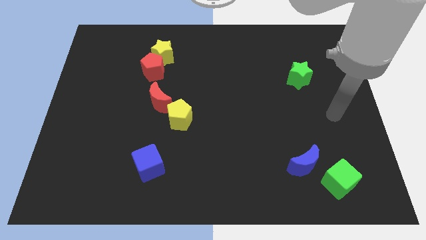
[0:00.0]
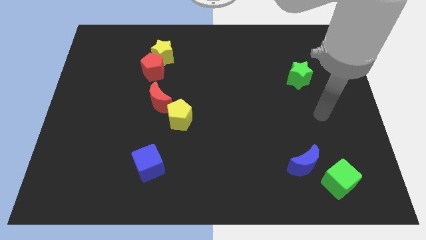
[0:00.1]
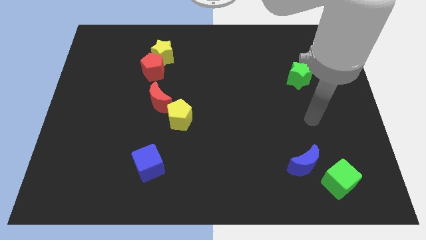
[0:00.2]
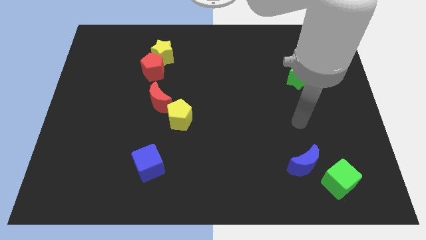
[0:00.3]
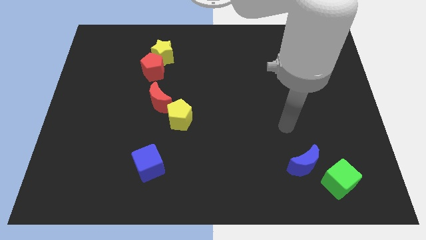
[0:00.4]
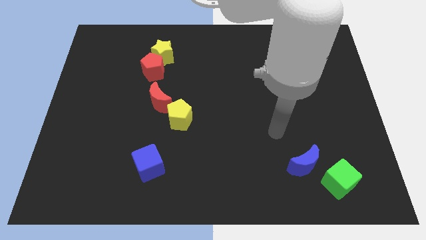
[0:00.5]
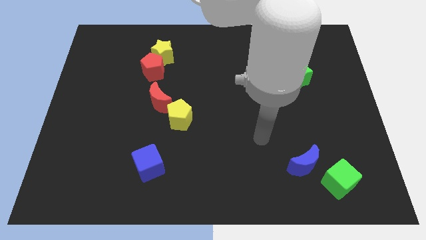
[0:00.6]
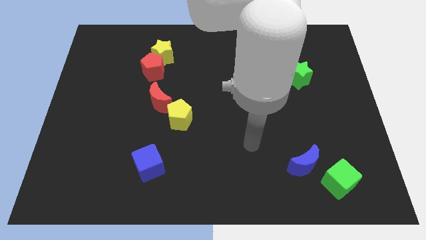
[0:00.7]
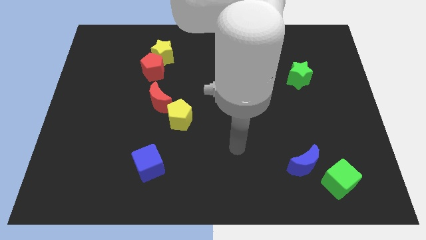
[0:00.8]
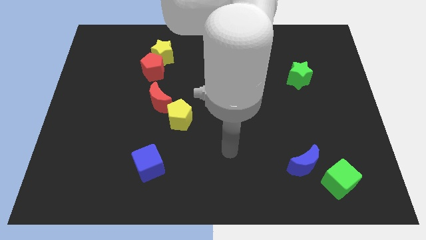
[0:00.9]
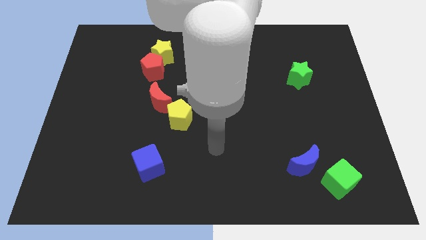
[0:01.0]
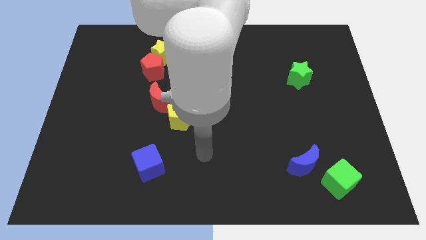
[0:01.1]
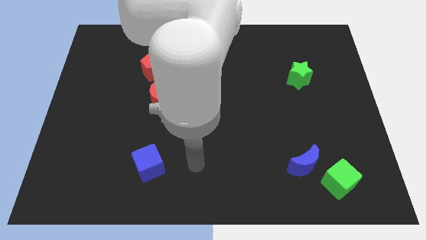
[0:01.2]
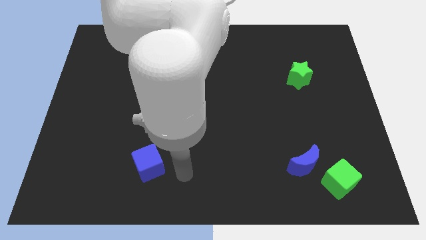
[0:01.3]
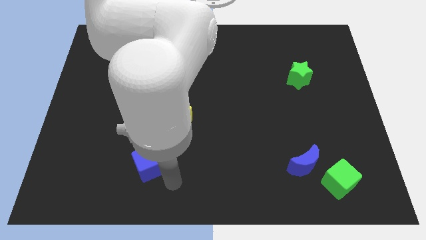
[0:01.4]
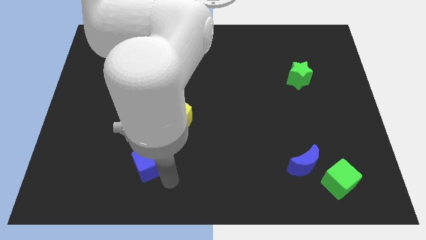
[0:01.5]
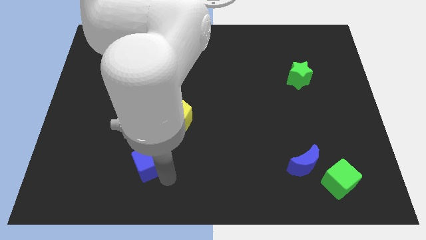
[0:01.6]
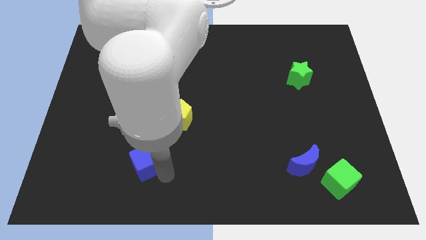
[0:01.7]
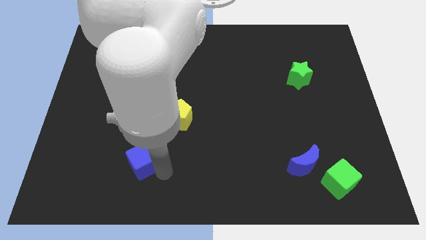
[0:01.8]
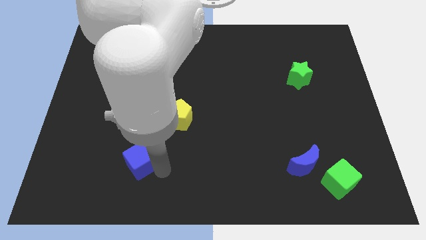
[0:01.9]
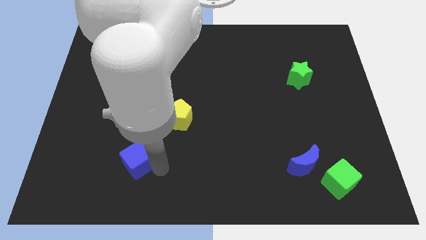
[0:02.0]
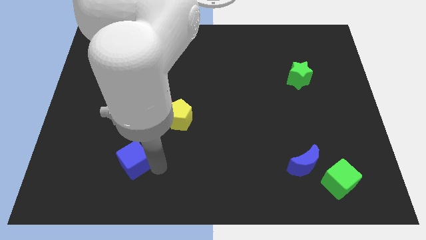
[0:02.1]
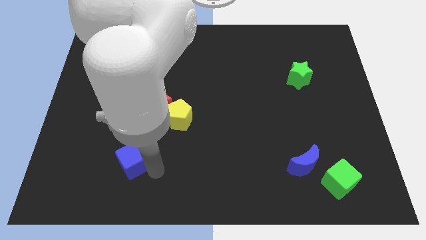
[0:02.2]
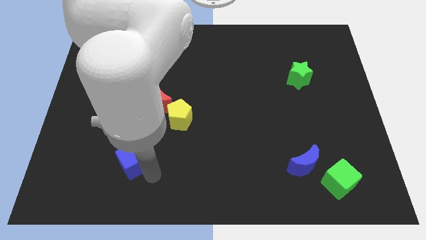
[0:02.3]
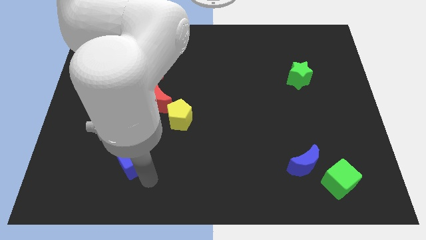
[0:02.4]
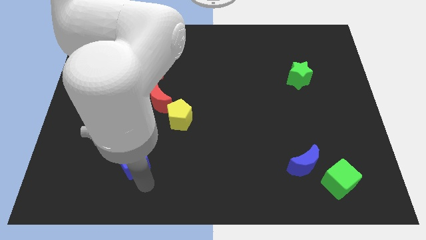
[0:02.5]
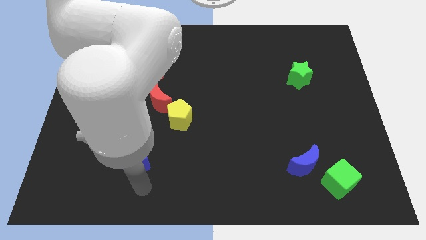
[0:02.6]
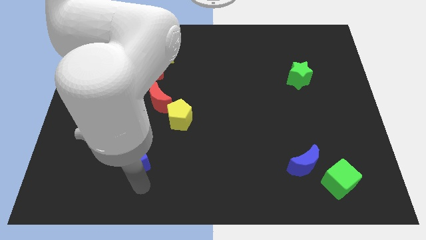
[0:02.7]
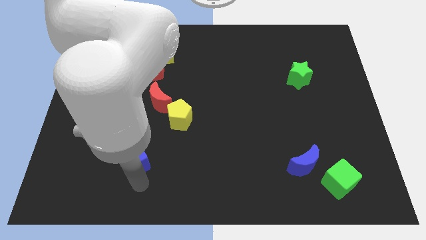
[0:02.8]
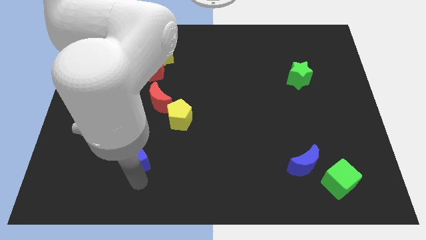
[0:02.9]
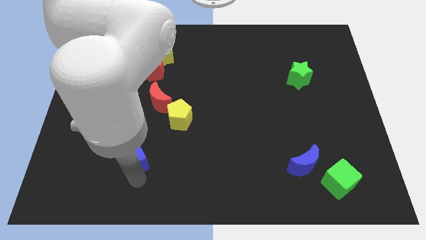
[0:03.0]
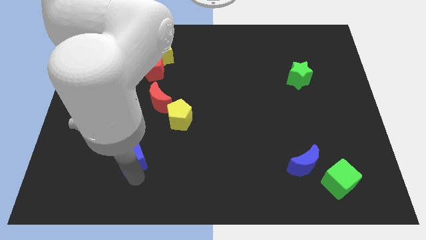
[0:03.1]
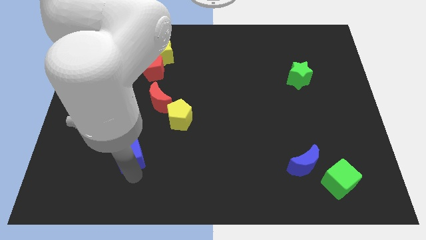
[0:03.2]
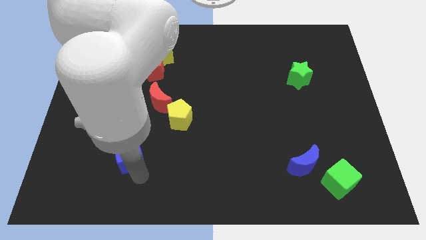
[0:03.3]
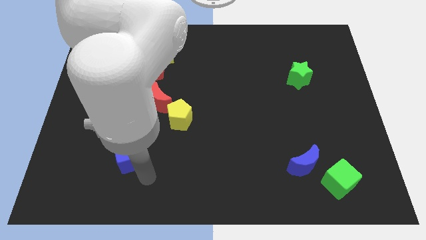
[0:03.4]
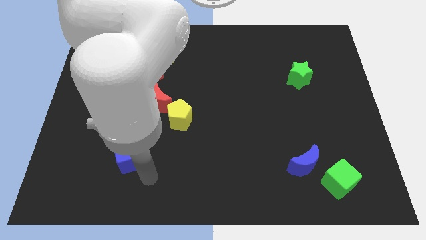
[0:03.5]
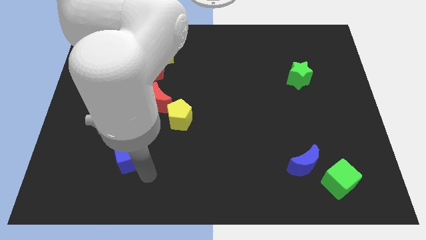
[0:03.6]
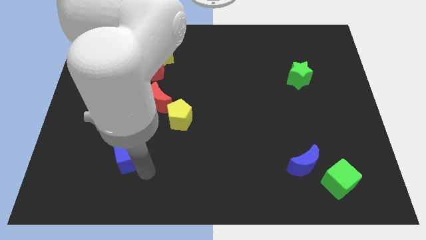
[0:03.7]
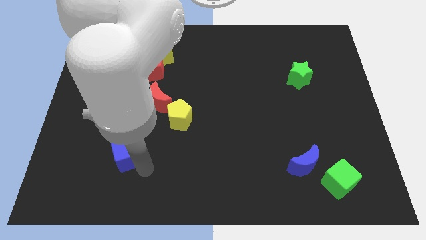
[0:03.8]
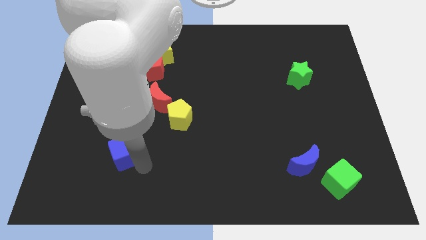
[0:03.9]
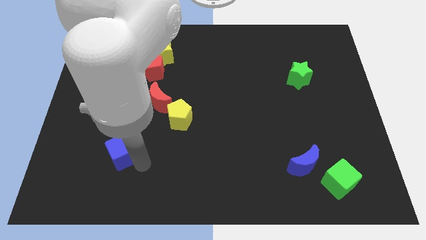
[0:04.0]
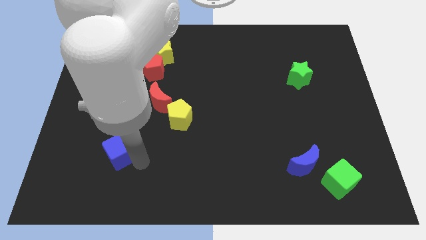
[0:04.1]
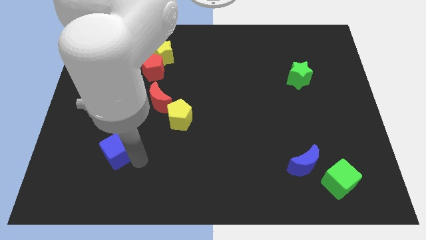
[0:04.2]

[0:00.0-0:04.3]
slightly move the blue cube diagonally up and to the left

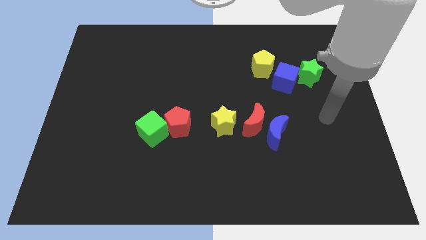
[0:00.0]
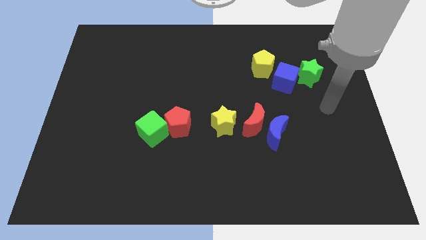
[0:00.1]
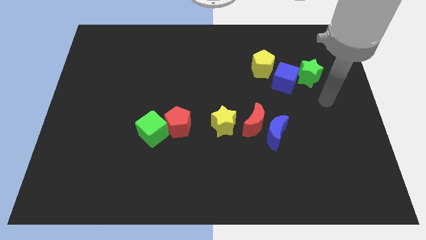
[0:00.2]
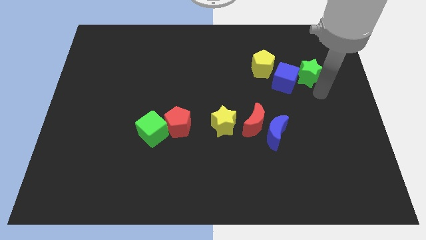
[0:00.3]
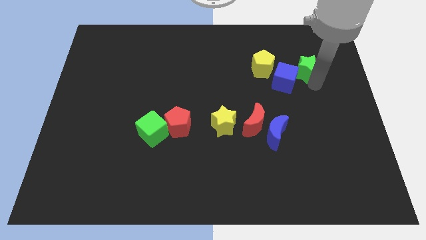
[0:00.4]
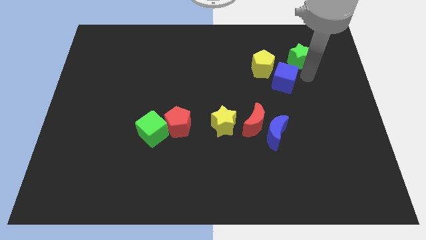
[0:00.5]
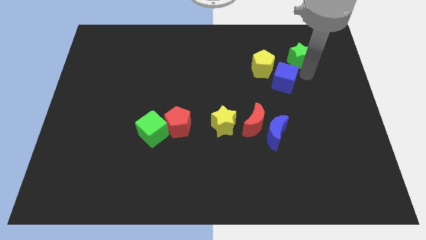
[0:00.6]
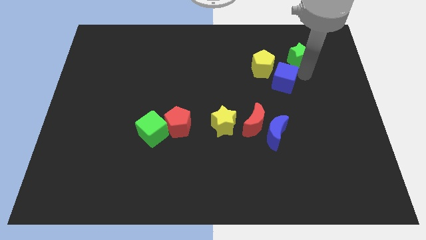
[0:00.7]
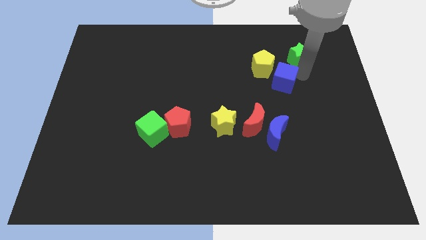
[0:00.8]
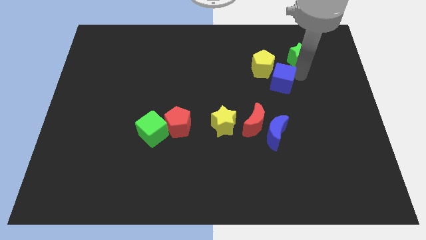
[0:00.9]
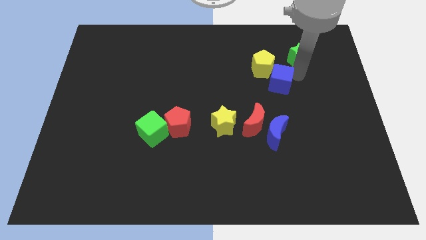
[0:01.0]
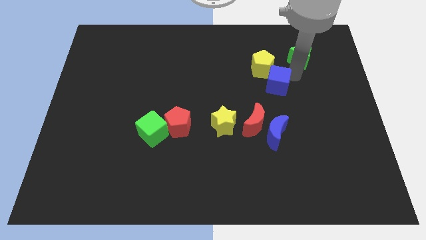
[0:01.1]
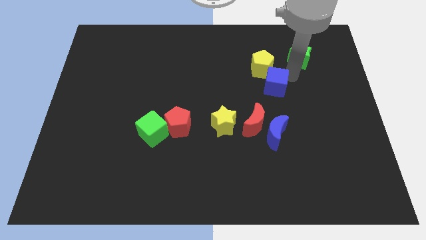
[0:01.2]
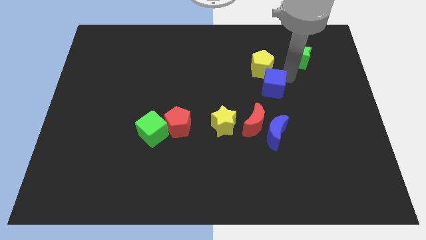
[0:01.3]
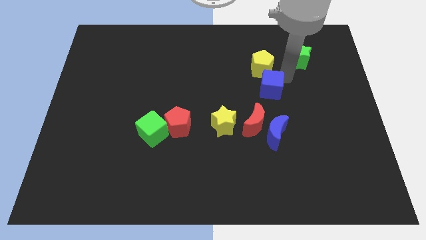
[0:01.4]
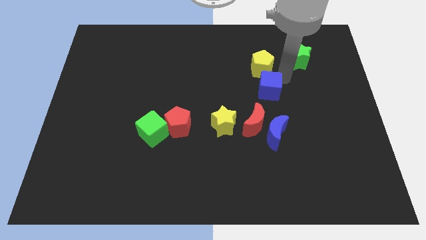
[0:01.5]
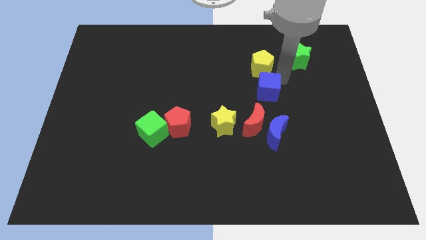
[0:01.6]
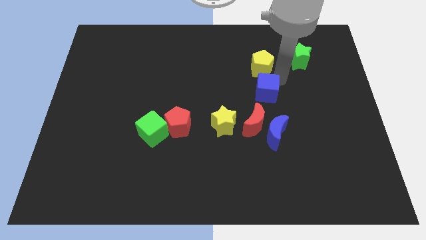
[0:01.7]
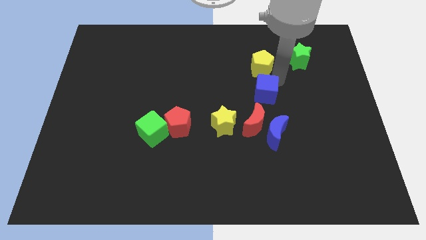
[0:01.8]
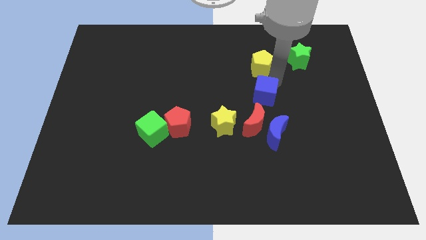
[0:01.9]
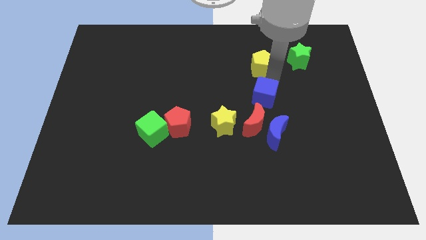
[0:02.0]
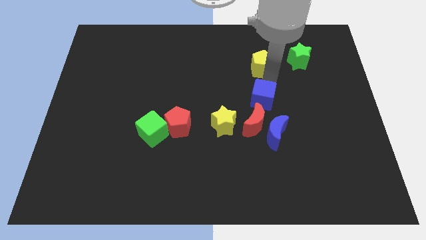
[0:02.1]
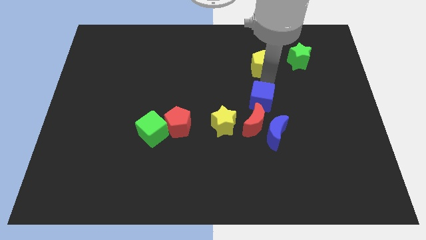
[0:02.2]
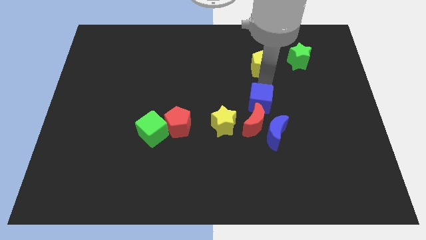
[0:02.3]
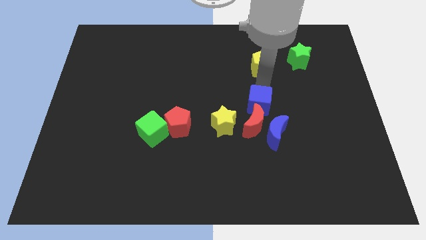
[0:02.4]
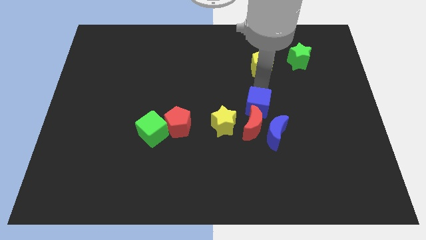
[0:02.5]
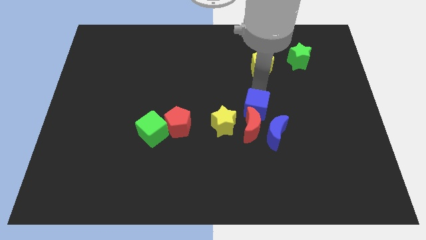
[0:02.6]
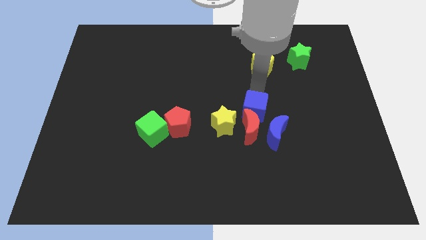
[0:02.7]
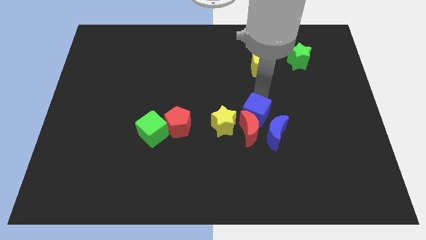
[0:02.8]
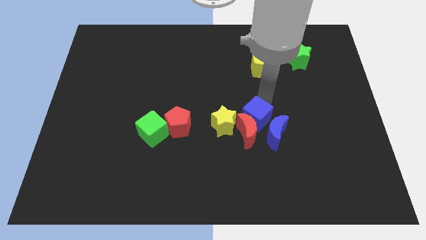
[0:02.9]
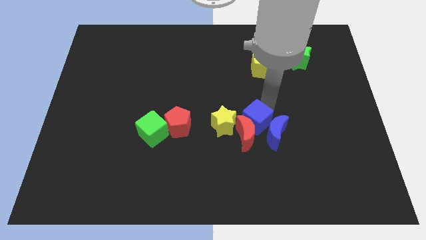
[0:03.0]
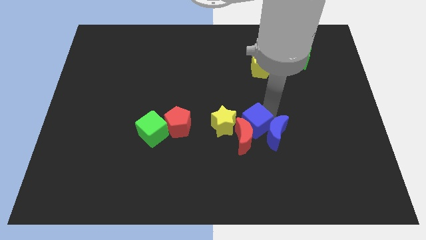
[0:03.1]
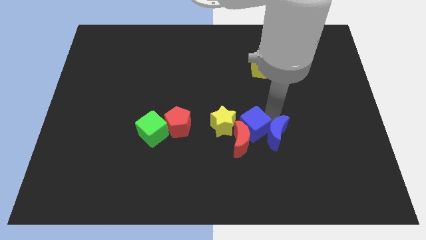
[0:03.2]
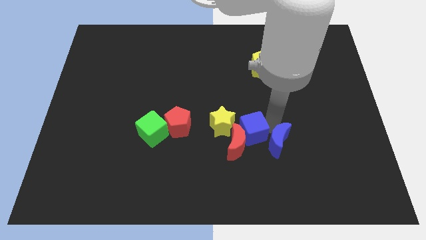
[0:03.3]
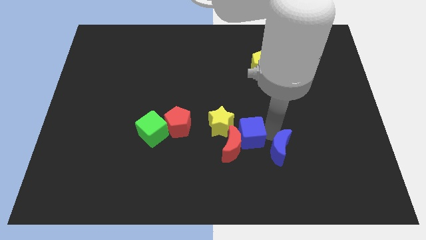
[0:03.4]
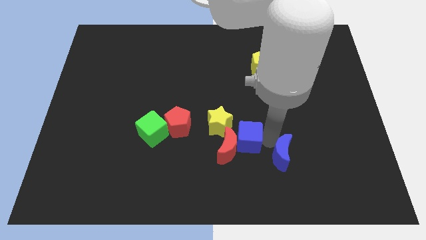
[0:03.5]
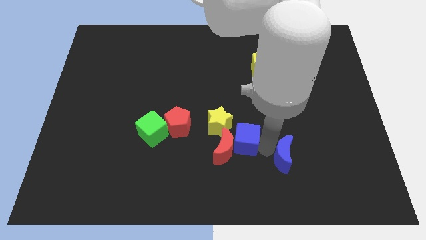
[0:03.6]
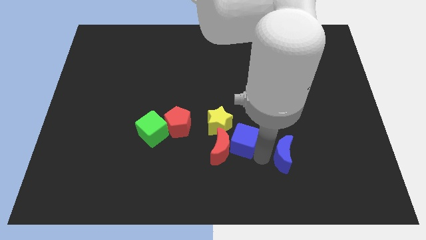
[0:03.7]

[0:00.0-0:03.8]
push the blue cube down and then left
